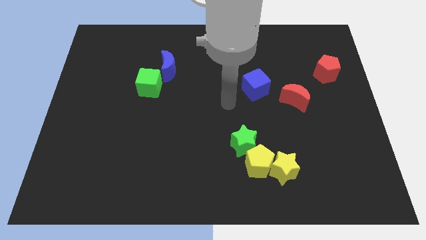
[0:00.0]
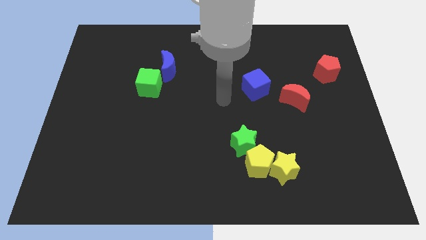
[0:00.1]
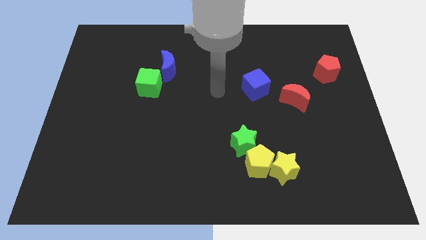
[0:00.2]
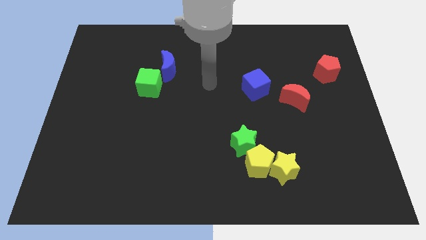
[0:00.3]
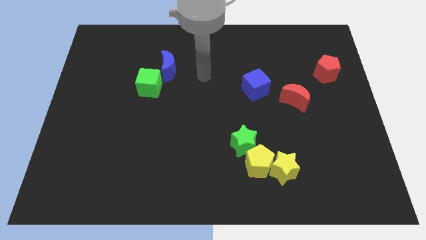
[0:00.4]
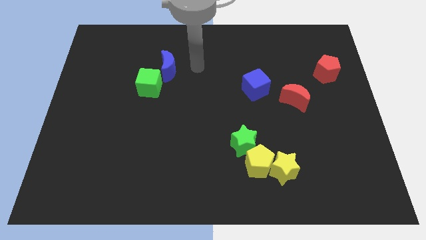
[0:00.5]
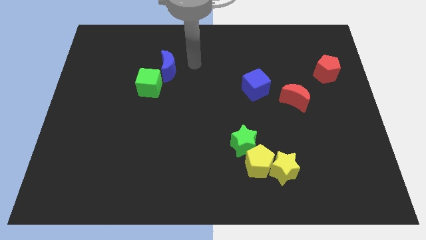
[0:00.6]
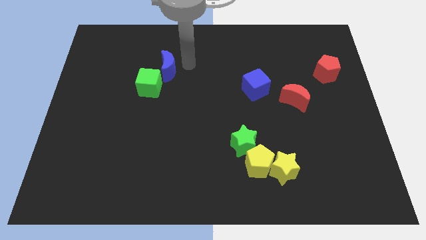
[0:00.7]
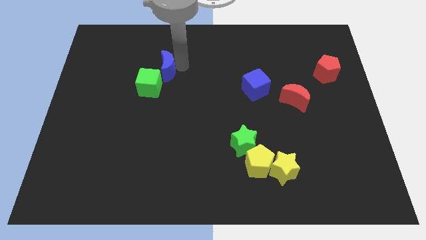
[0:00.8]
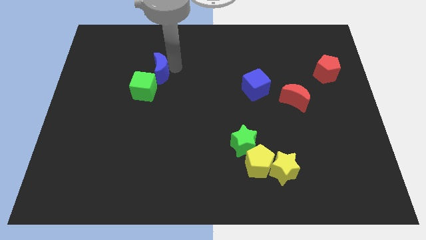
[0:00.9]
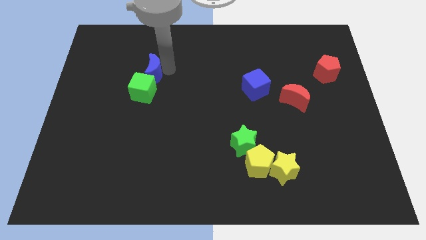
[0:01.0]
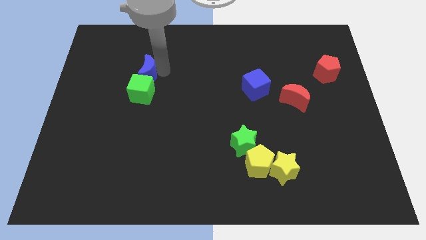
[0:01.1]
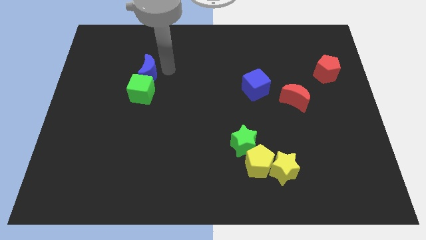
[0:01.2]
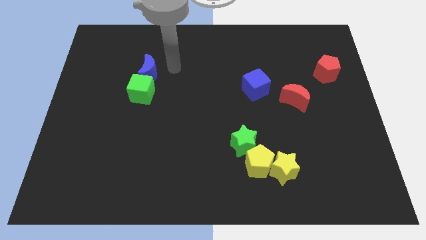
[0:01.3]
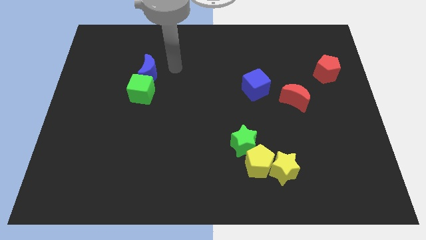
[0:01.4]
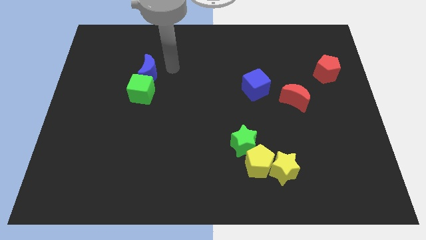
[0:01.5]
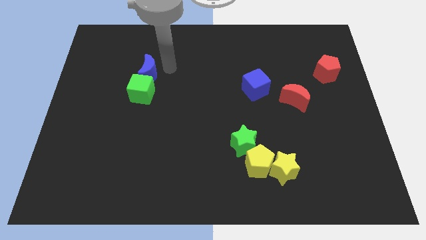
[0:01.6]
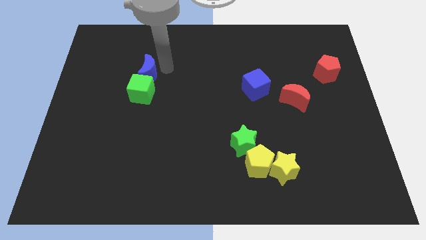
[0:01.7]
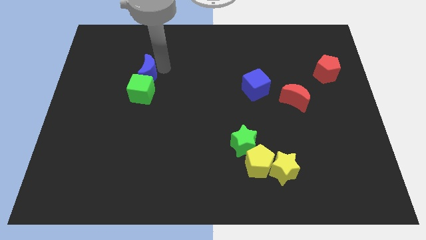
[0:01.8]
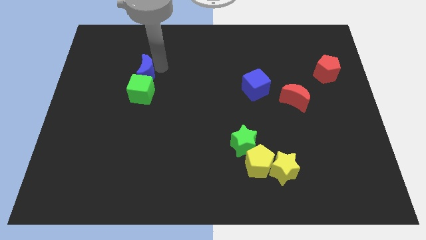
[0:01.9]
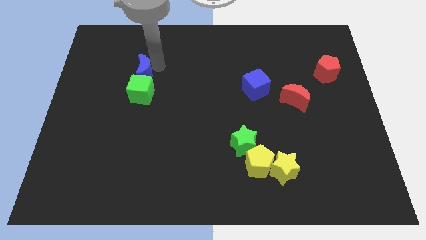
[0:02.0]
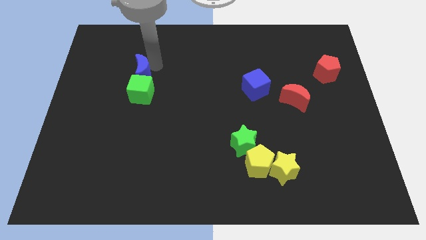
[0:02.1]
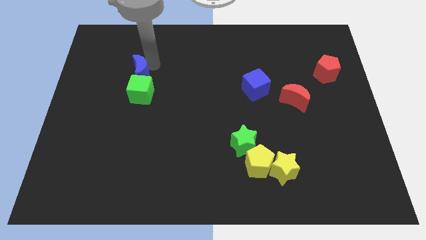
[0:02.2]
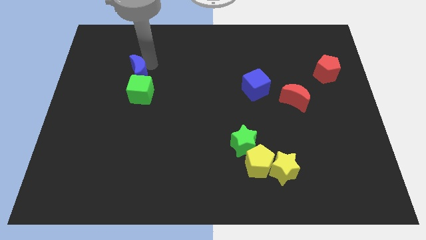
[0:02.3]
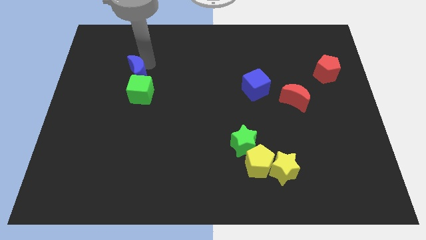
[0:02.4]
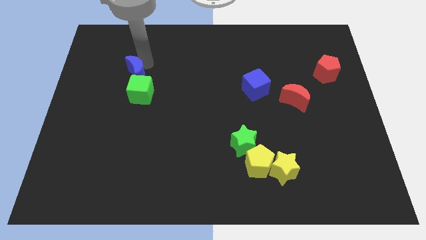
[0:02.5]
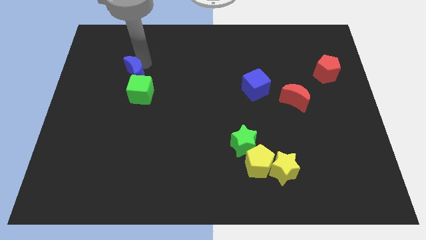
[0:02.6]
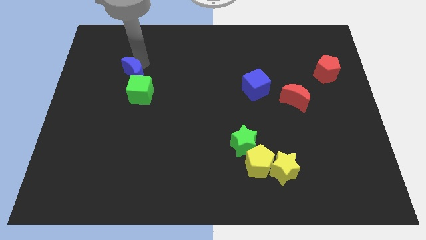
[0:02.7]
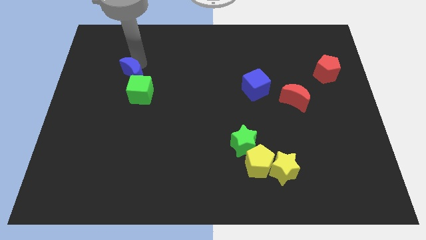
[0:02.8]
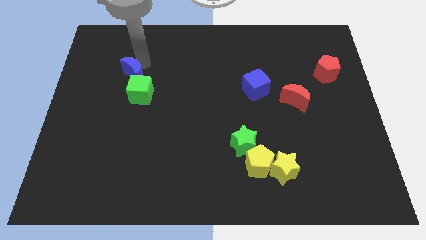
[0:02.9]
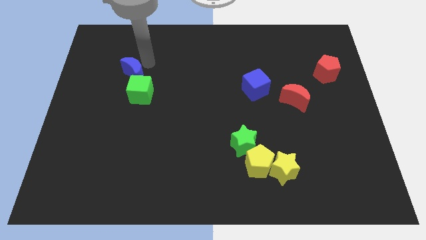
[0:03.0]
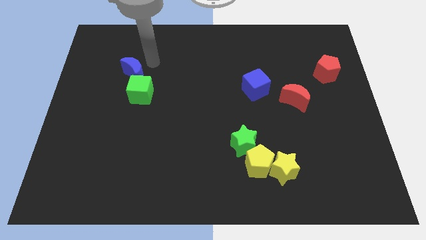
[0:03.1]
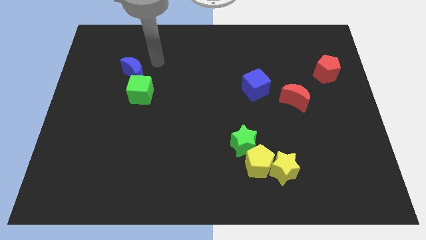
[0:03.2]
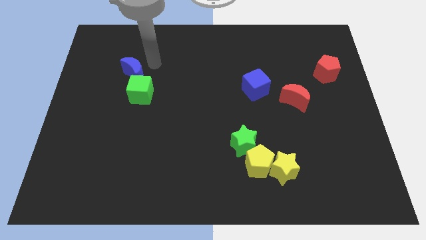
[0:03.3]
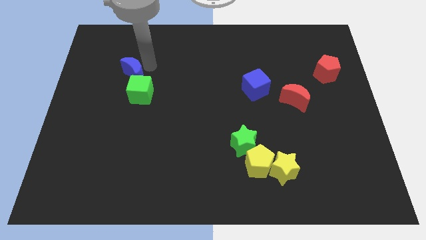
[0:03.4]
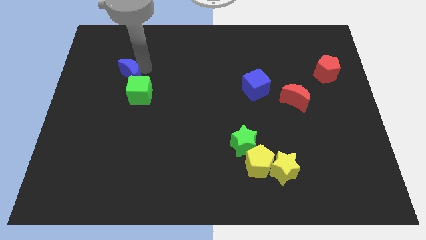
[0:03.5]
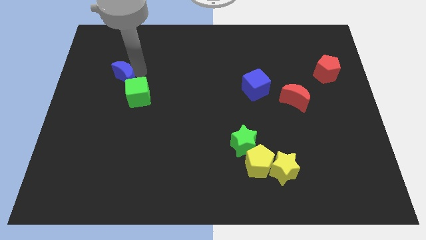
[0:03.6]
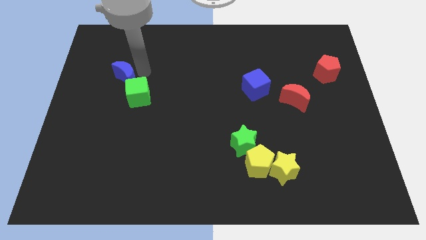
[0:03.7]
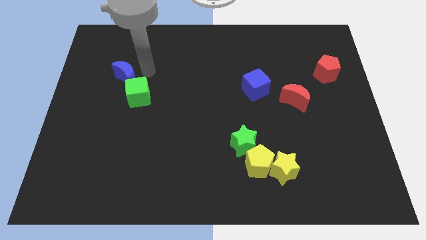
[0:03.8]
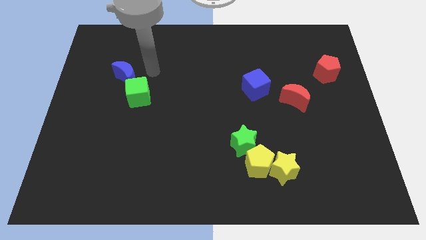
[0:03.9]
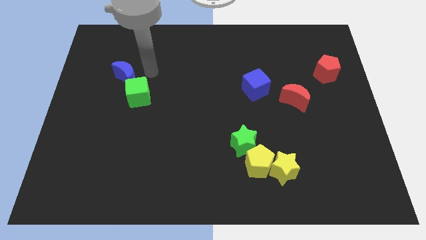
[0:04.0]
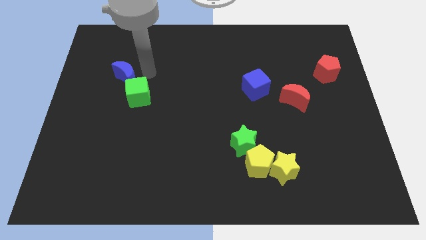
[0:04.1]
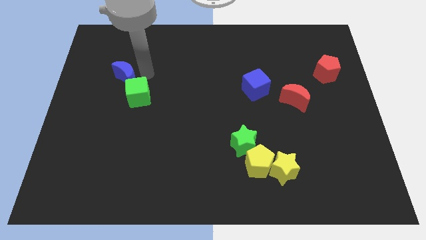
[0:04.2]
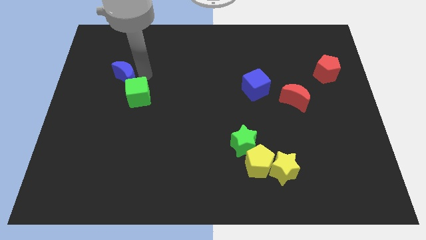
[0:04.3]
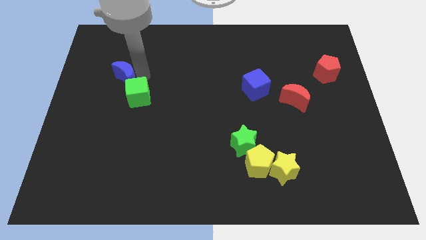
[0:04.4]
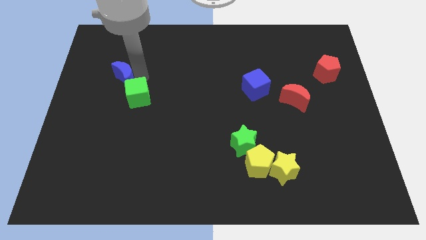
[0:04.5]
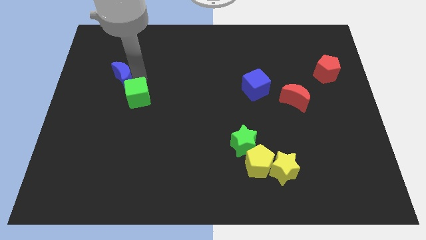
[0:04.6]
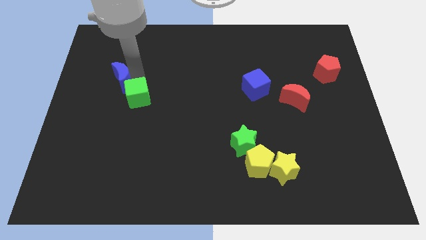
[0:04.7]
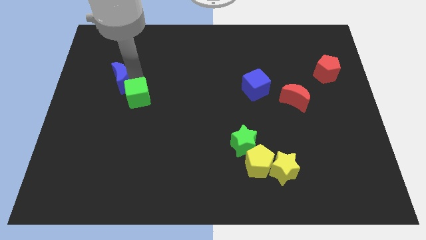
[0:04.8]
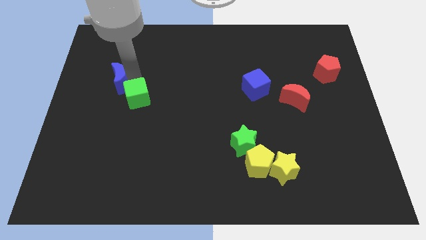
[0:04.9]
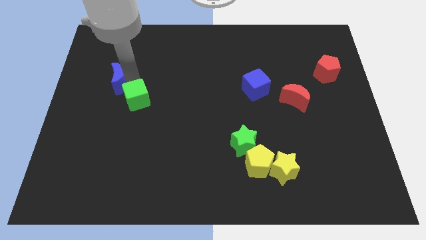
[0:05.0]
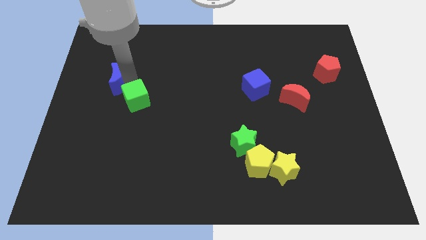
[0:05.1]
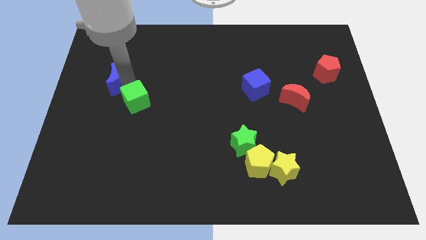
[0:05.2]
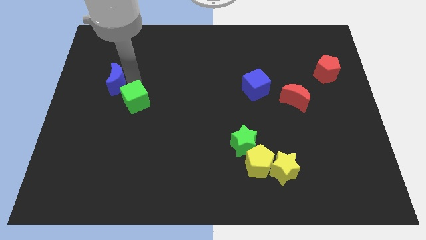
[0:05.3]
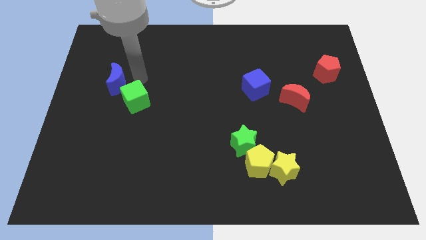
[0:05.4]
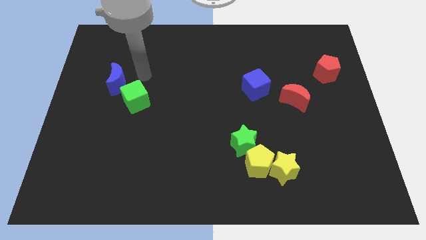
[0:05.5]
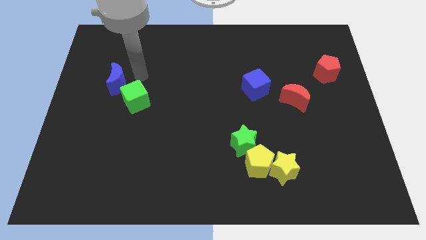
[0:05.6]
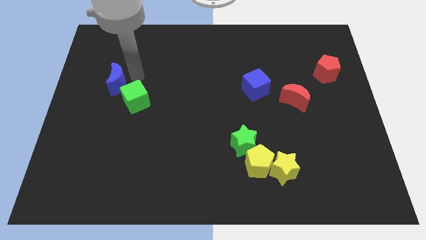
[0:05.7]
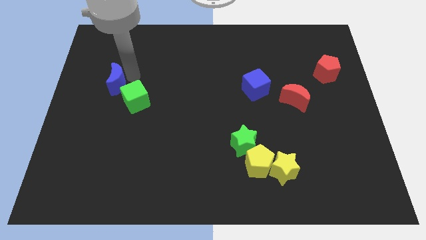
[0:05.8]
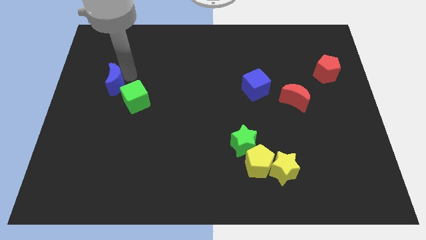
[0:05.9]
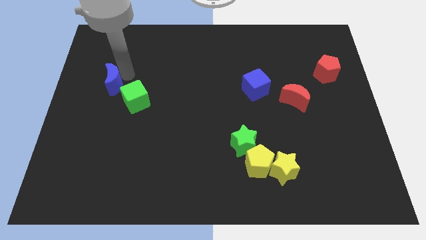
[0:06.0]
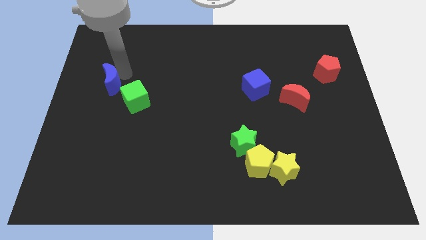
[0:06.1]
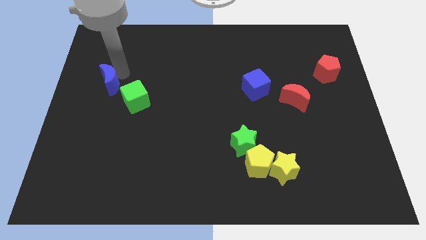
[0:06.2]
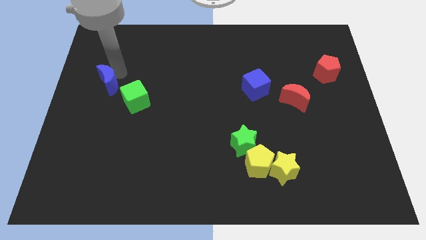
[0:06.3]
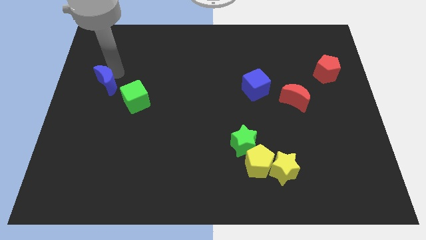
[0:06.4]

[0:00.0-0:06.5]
put the blue moon to the center left
